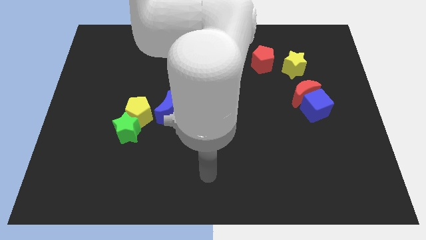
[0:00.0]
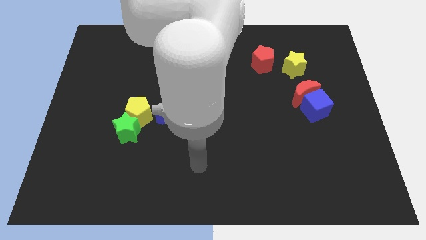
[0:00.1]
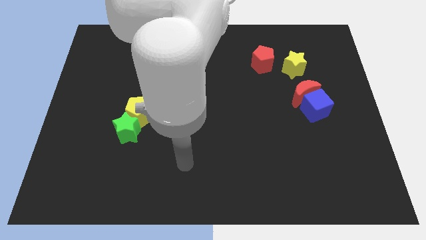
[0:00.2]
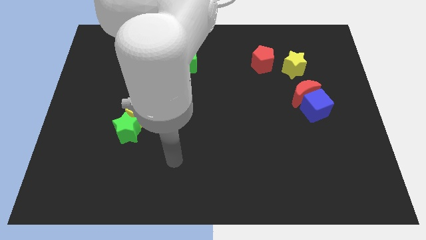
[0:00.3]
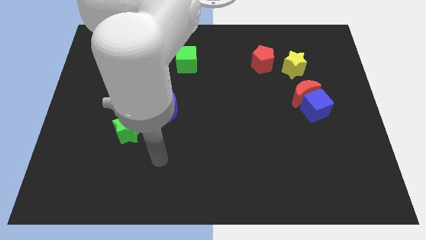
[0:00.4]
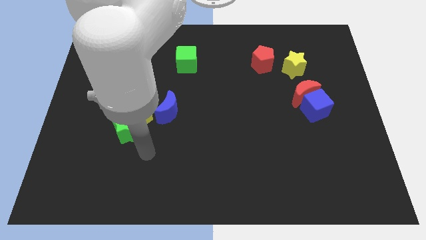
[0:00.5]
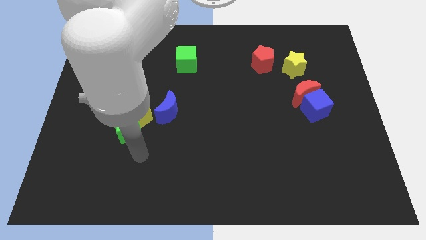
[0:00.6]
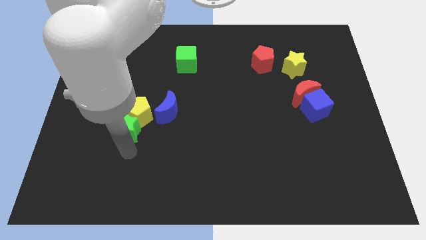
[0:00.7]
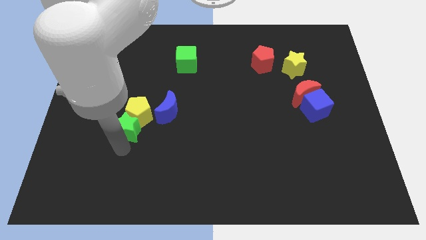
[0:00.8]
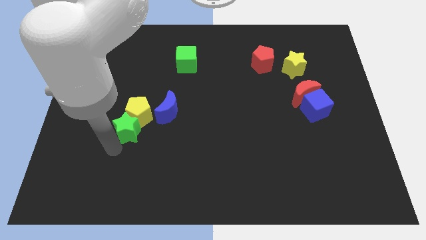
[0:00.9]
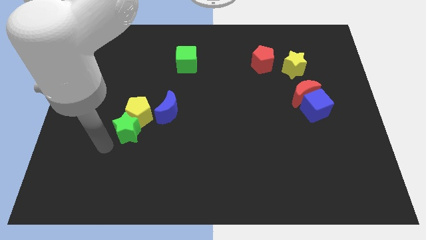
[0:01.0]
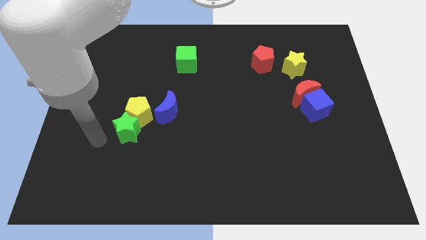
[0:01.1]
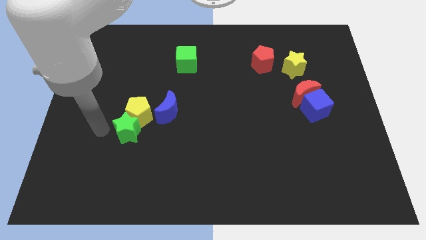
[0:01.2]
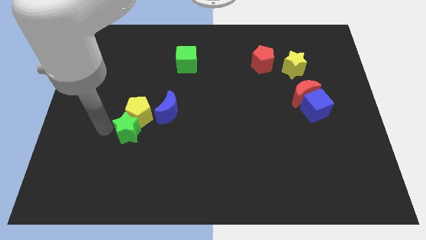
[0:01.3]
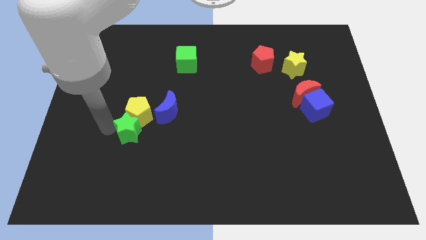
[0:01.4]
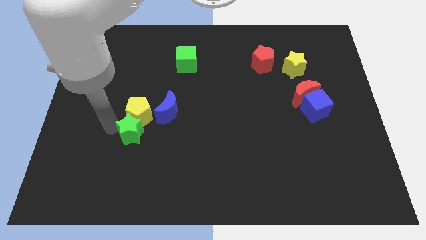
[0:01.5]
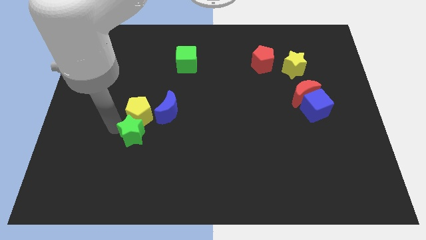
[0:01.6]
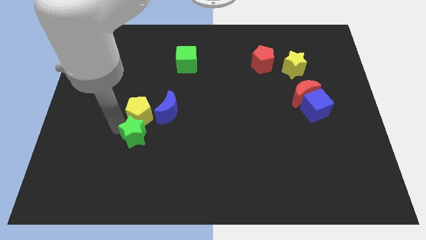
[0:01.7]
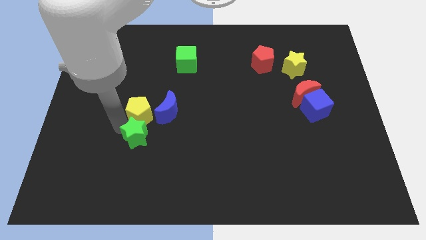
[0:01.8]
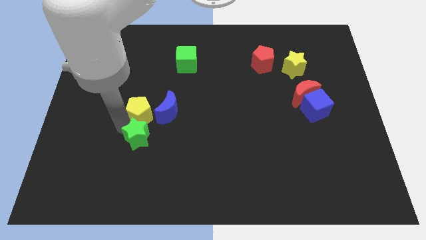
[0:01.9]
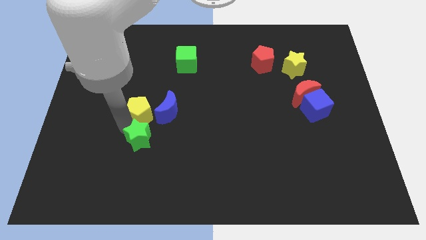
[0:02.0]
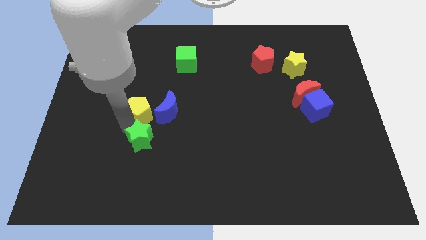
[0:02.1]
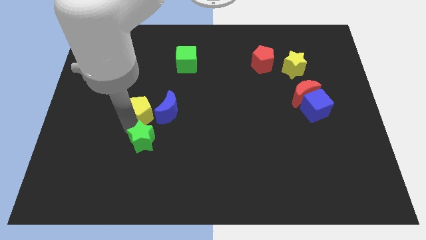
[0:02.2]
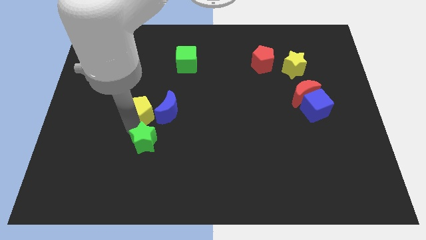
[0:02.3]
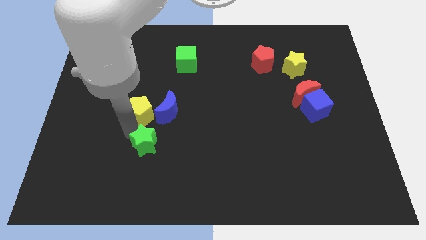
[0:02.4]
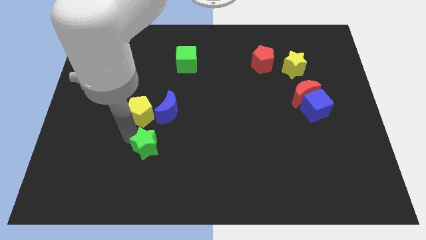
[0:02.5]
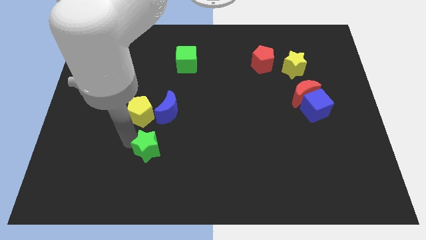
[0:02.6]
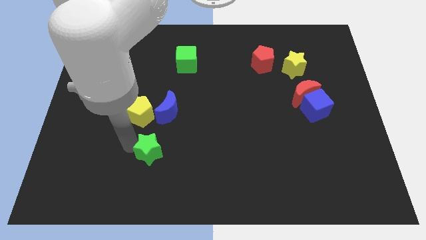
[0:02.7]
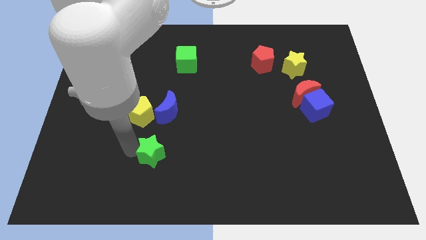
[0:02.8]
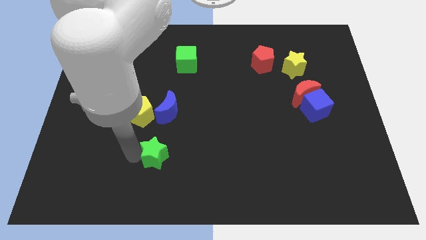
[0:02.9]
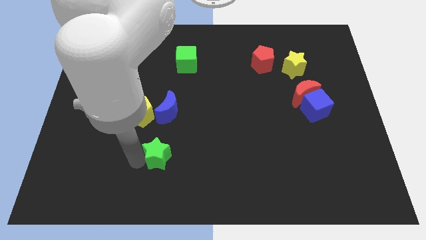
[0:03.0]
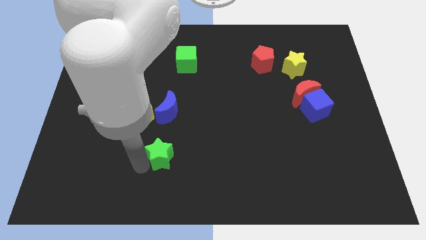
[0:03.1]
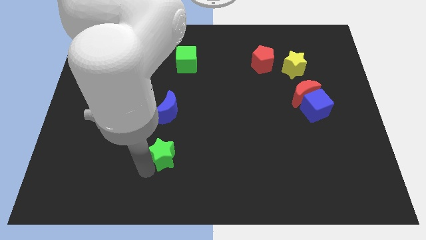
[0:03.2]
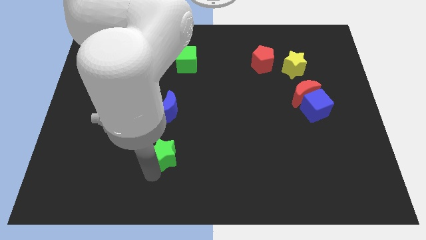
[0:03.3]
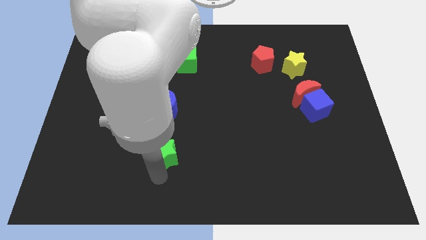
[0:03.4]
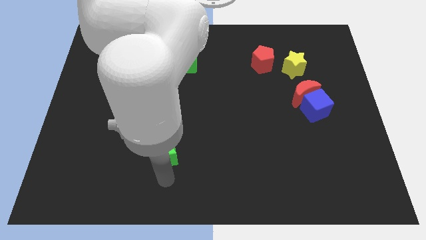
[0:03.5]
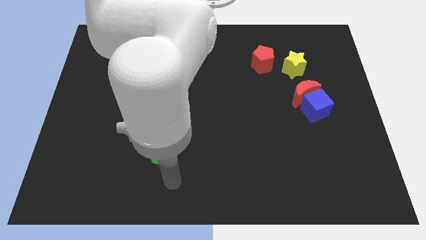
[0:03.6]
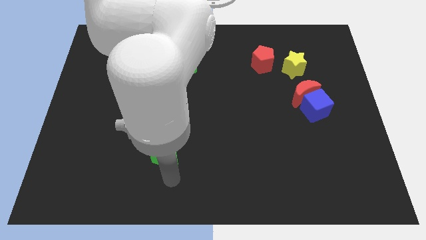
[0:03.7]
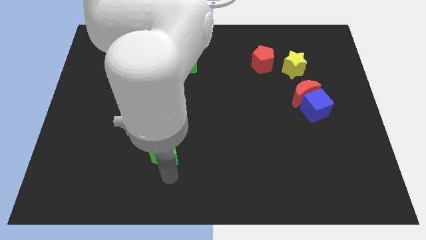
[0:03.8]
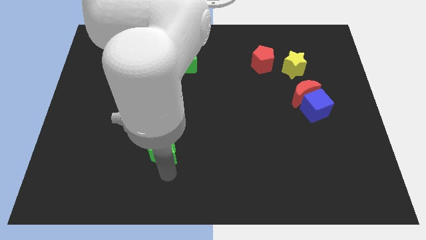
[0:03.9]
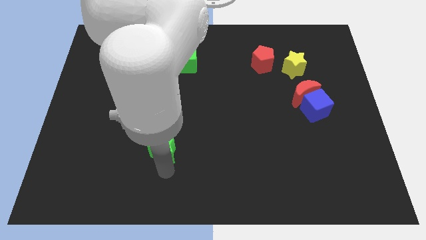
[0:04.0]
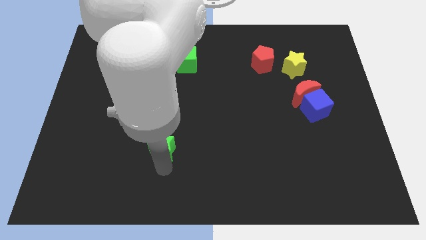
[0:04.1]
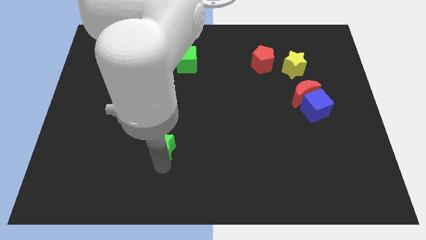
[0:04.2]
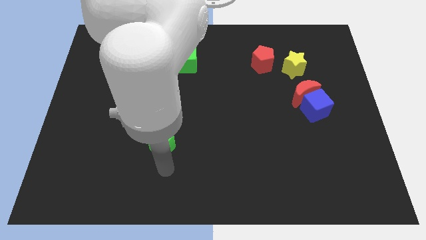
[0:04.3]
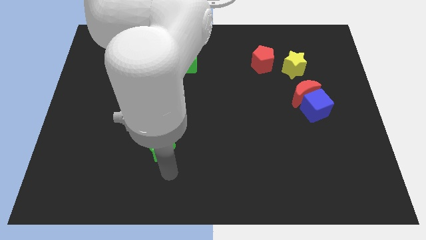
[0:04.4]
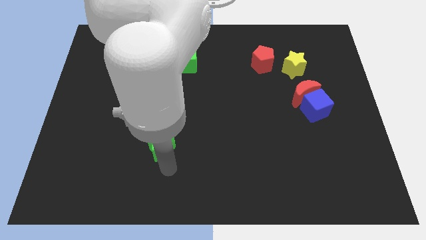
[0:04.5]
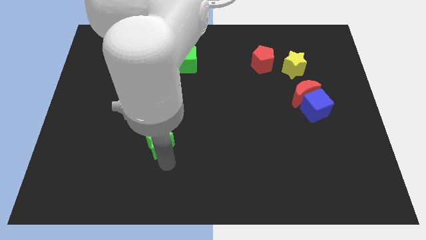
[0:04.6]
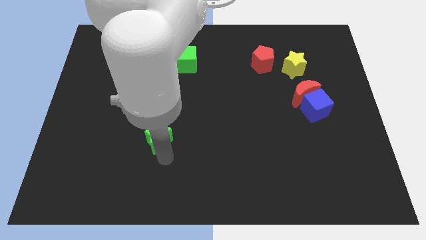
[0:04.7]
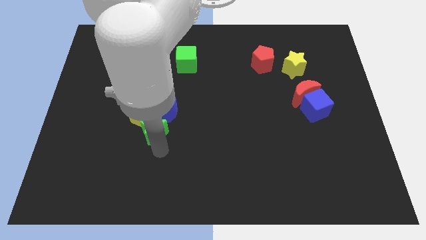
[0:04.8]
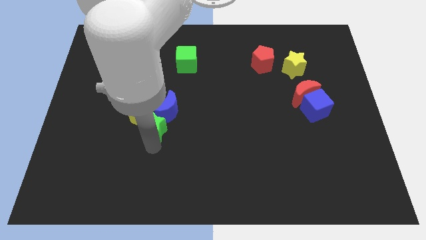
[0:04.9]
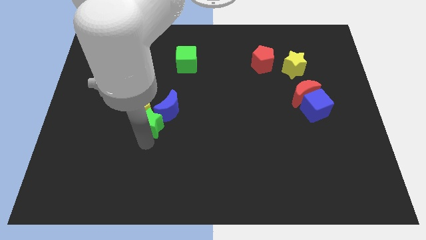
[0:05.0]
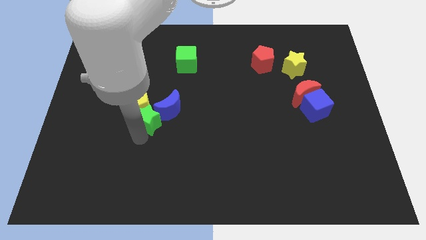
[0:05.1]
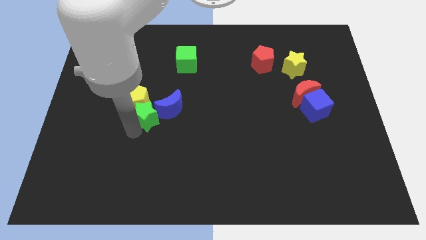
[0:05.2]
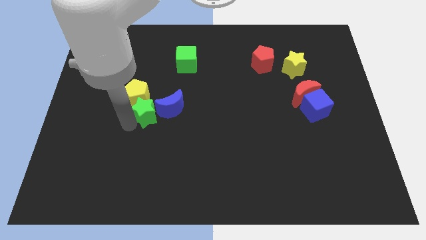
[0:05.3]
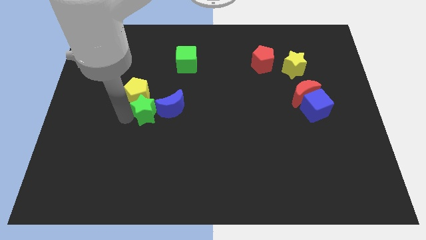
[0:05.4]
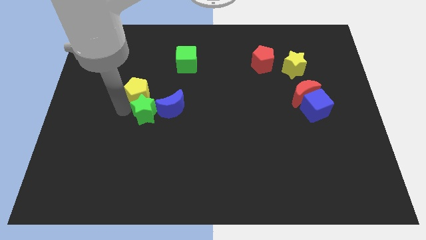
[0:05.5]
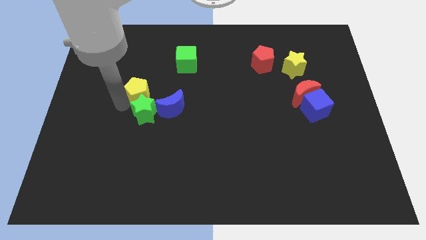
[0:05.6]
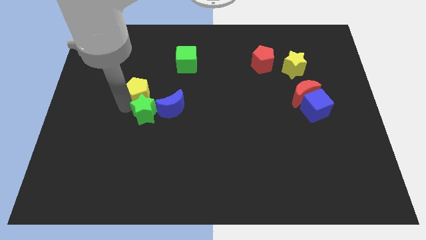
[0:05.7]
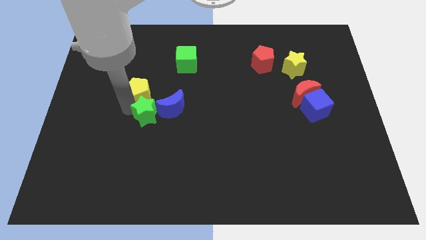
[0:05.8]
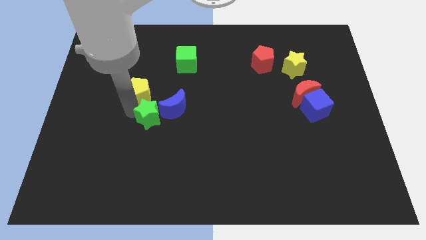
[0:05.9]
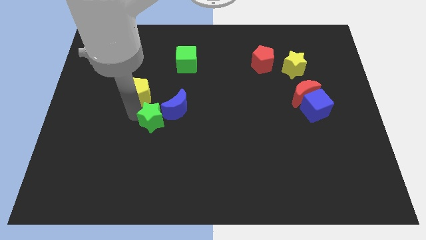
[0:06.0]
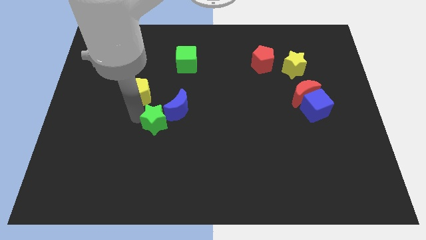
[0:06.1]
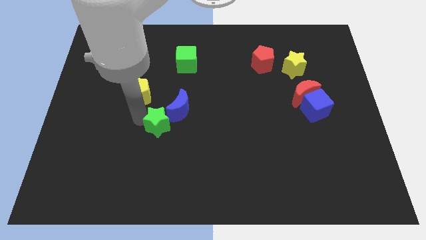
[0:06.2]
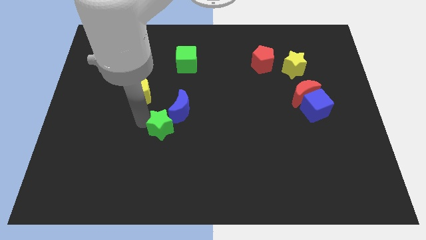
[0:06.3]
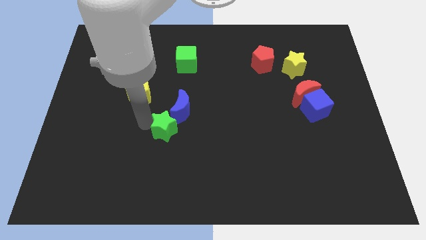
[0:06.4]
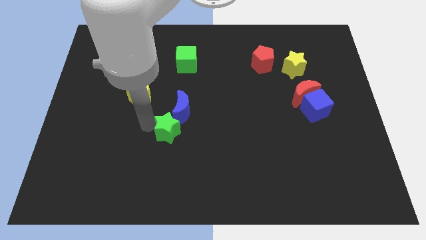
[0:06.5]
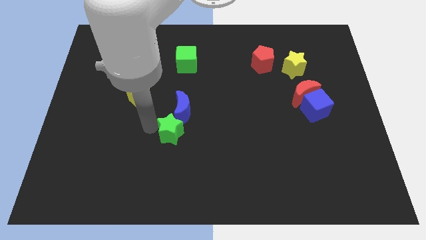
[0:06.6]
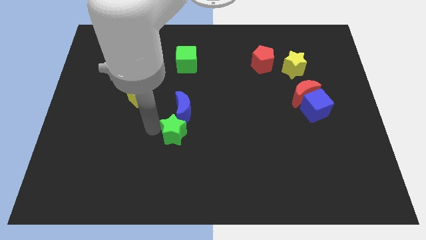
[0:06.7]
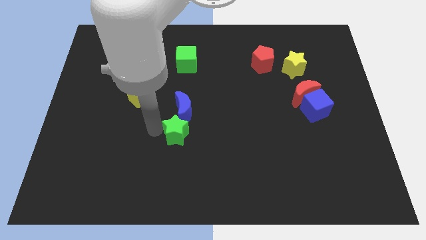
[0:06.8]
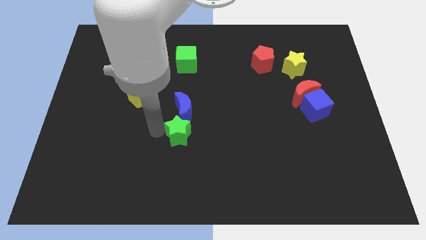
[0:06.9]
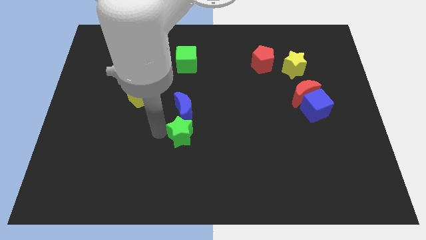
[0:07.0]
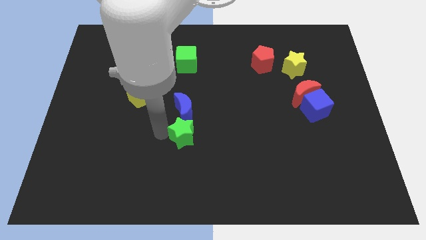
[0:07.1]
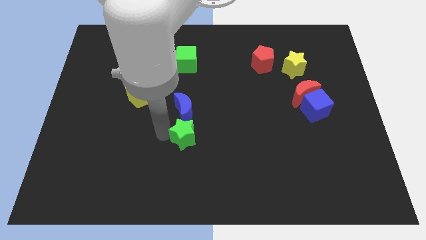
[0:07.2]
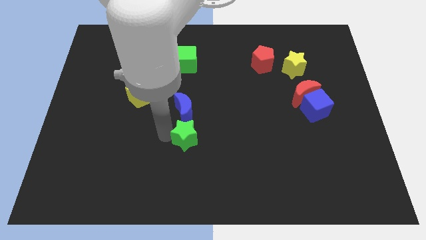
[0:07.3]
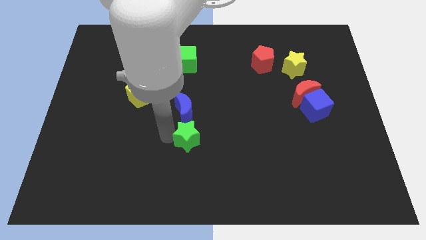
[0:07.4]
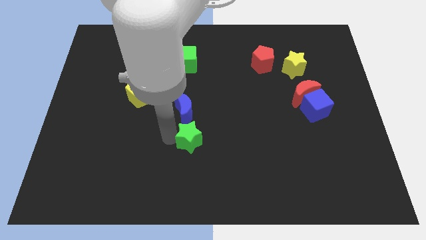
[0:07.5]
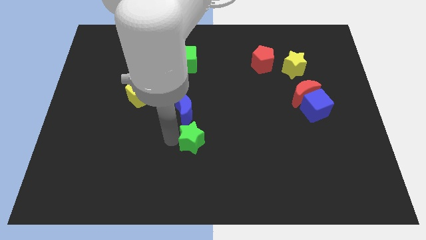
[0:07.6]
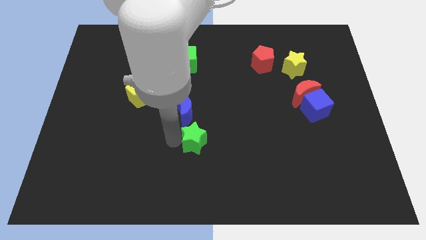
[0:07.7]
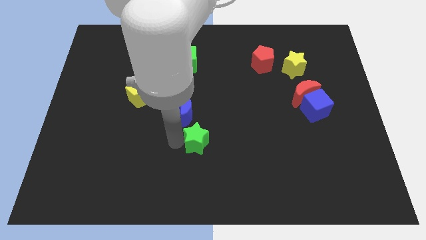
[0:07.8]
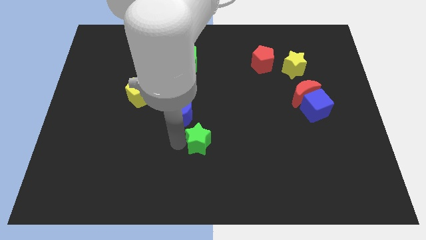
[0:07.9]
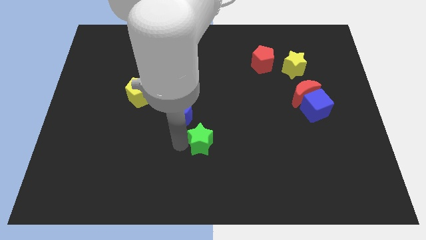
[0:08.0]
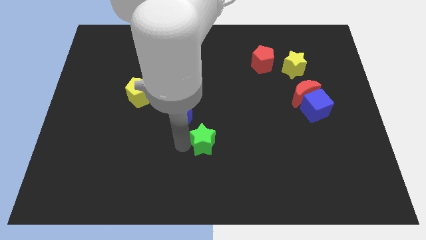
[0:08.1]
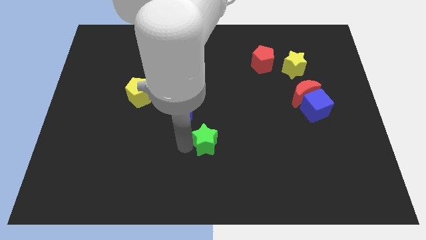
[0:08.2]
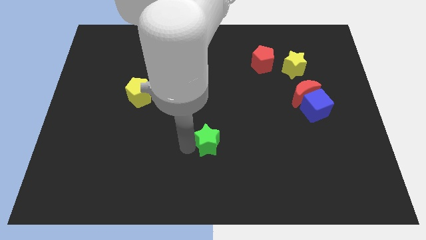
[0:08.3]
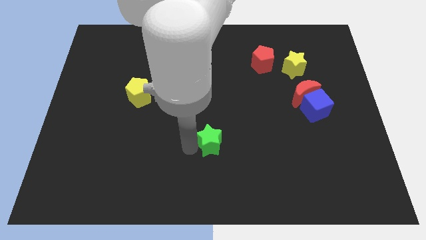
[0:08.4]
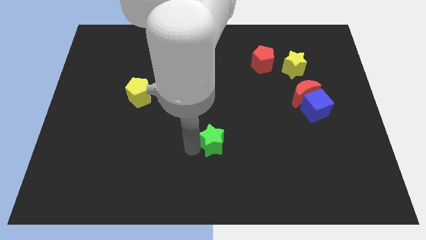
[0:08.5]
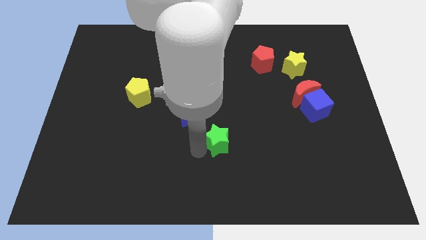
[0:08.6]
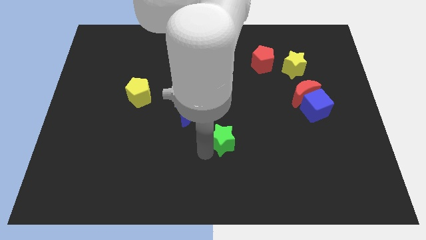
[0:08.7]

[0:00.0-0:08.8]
move the green star to the right
